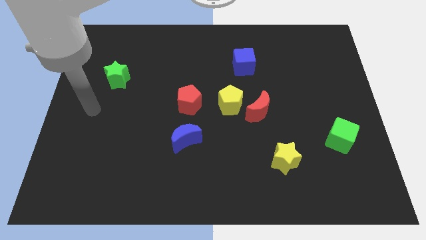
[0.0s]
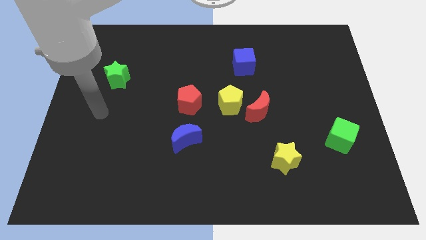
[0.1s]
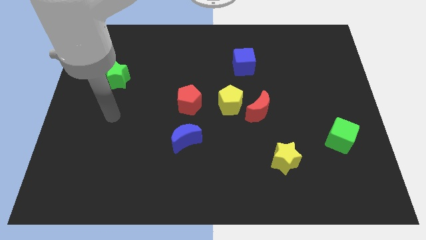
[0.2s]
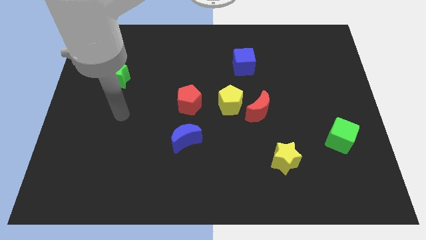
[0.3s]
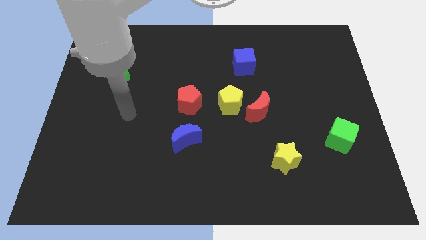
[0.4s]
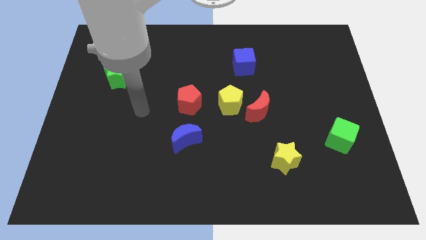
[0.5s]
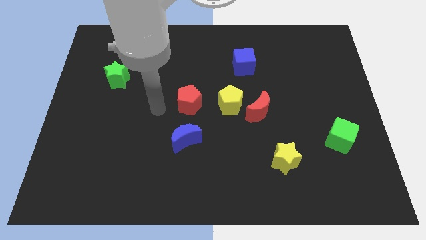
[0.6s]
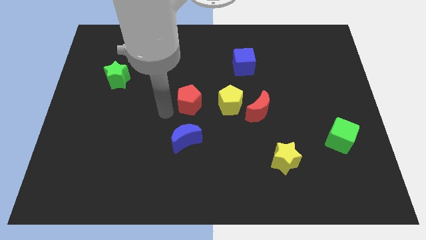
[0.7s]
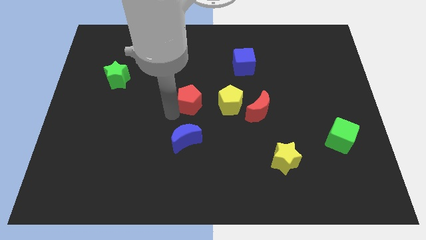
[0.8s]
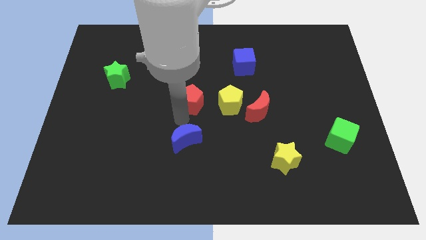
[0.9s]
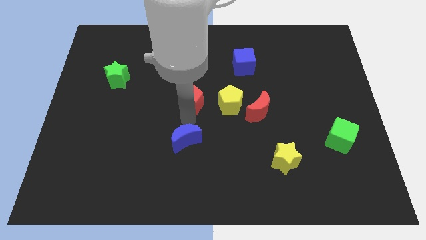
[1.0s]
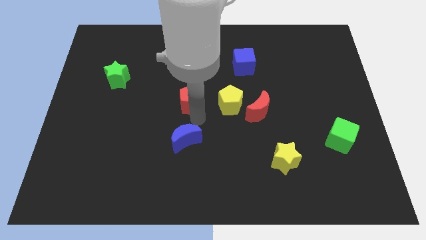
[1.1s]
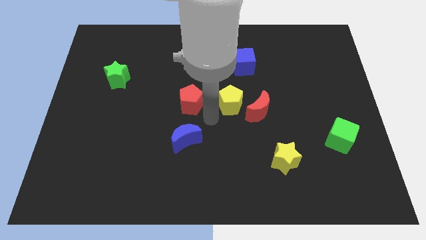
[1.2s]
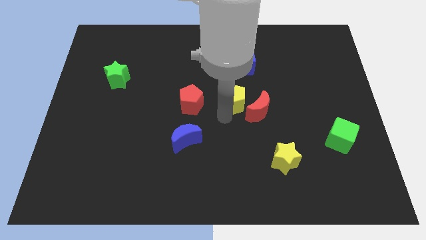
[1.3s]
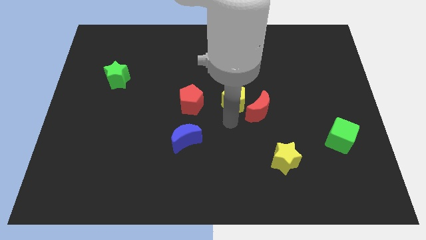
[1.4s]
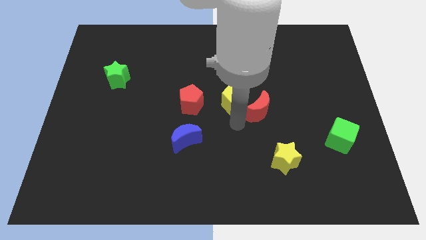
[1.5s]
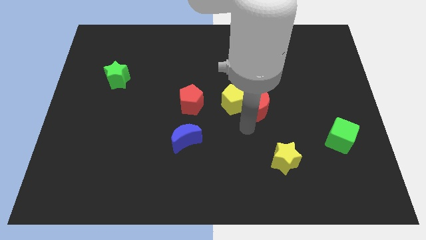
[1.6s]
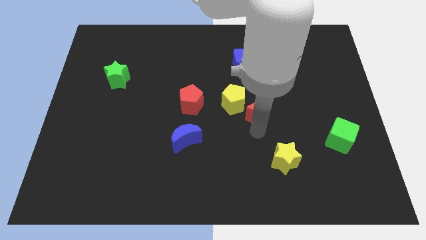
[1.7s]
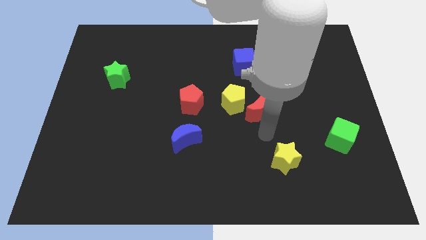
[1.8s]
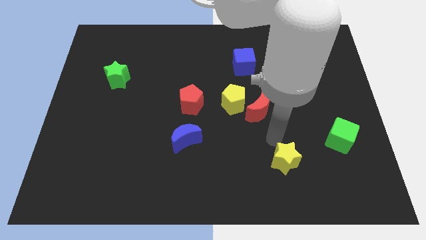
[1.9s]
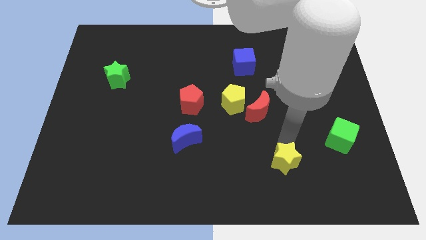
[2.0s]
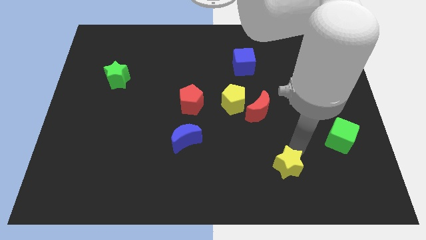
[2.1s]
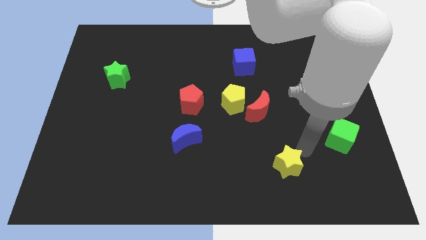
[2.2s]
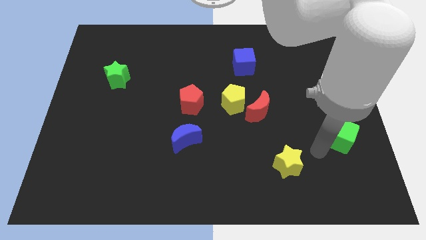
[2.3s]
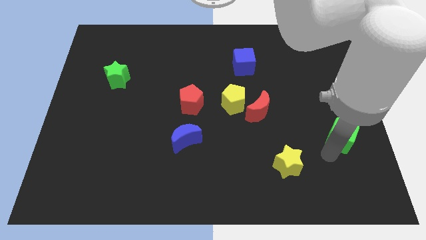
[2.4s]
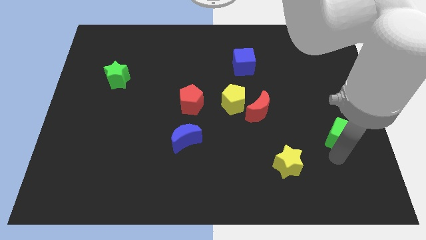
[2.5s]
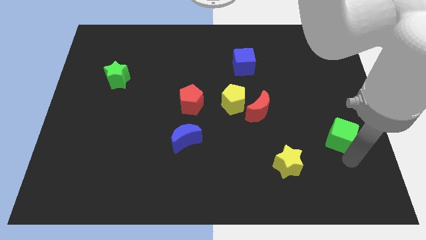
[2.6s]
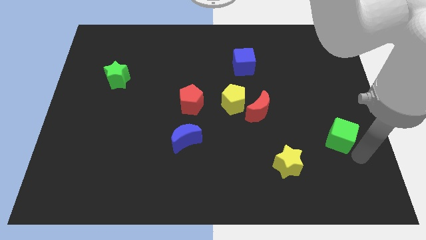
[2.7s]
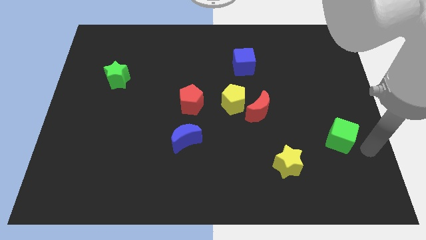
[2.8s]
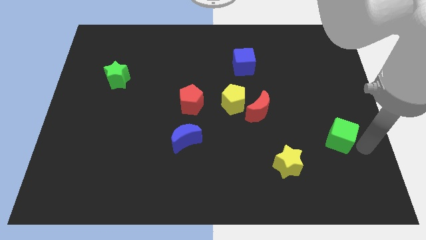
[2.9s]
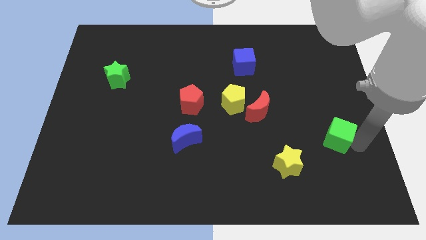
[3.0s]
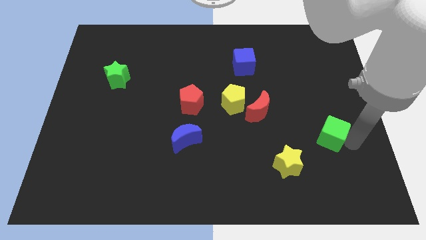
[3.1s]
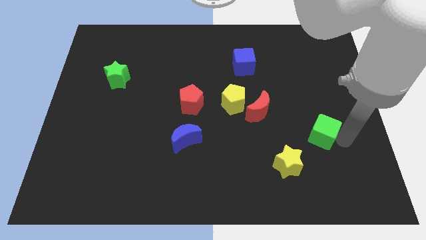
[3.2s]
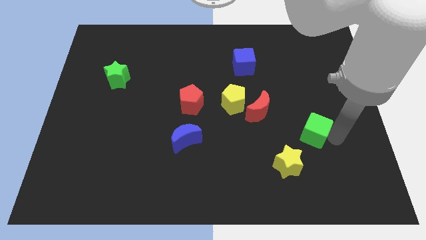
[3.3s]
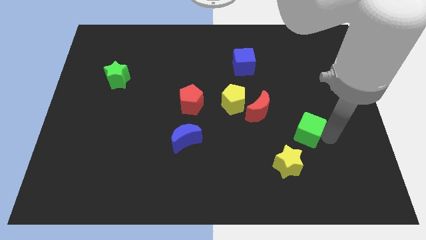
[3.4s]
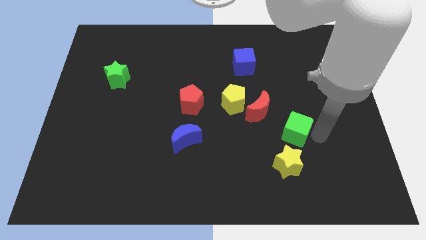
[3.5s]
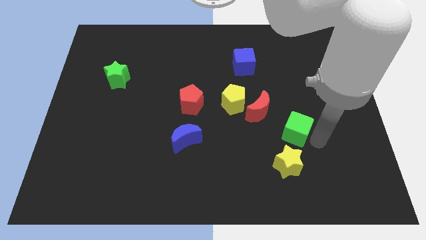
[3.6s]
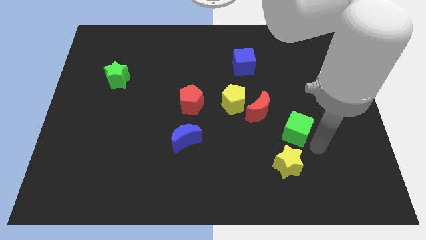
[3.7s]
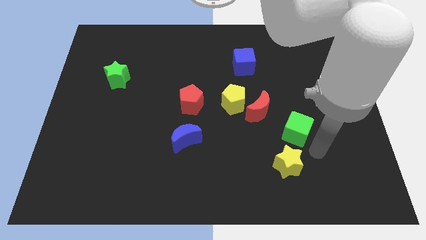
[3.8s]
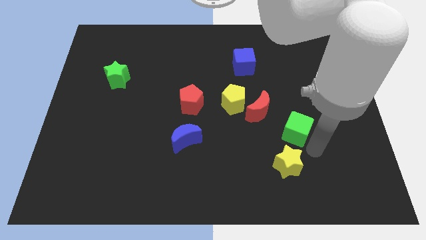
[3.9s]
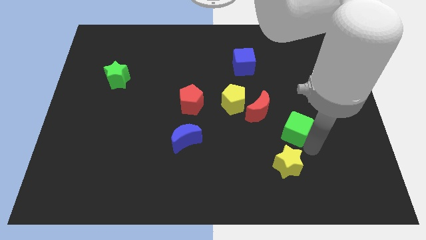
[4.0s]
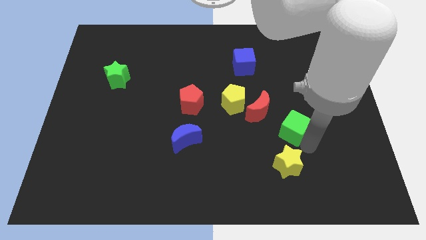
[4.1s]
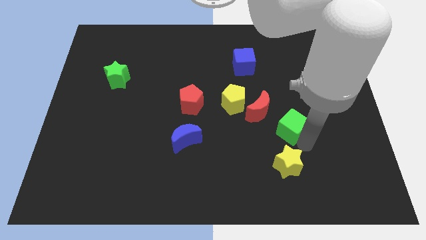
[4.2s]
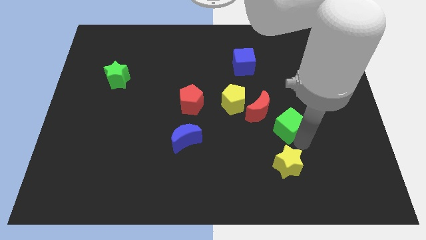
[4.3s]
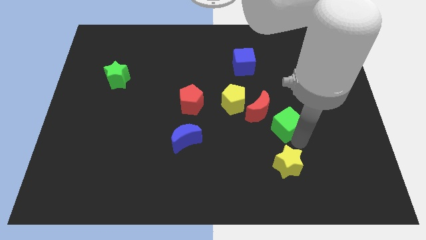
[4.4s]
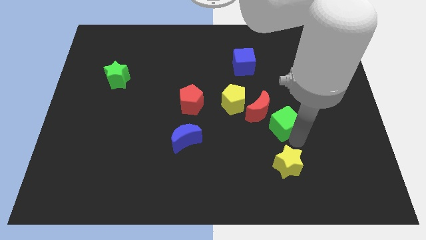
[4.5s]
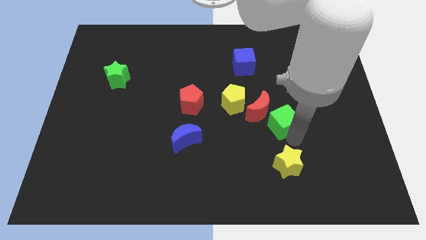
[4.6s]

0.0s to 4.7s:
push the green cube close to the red moon

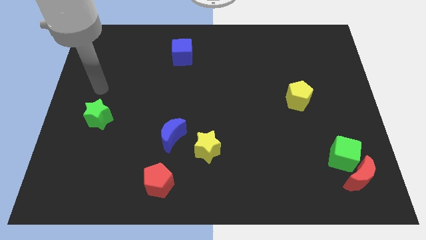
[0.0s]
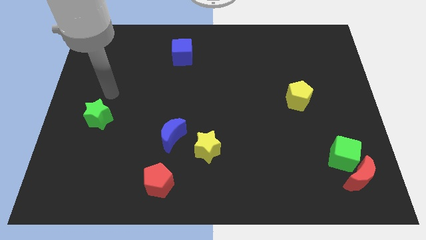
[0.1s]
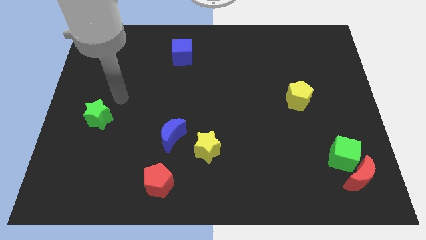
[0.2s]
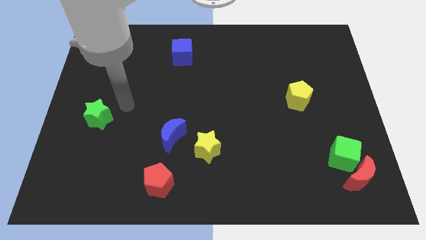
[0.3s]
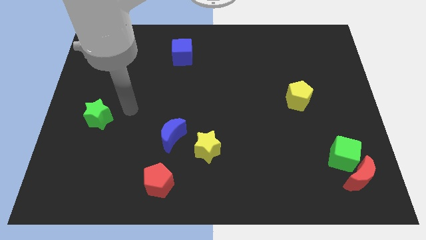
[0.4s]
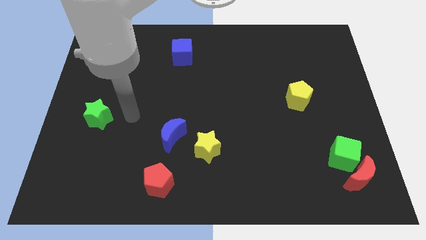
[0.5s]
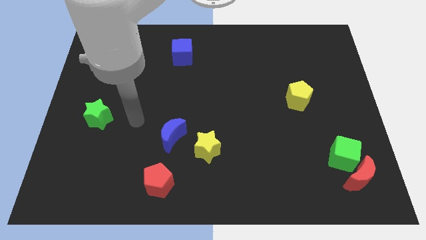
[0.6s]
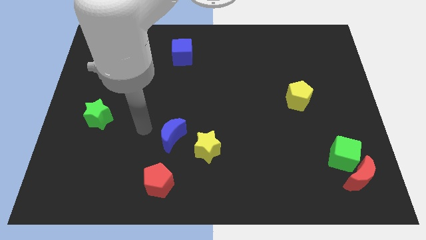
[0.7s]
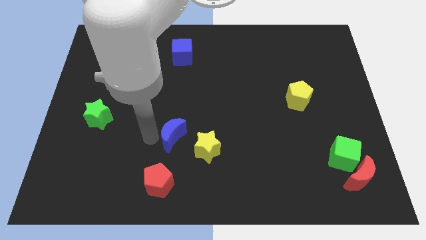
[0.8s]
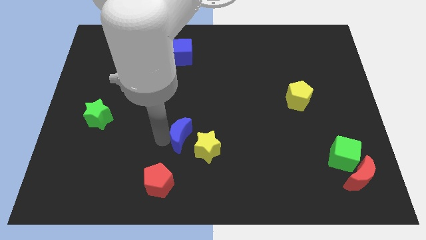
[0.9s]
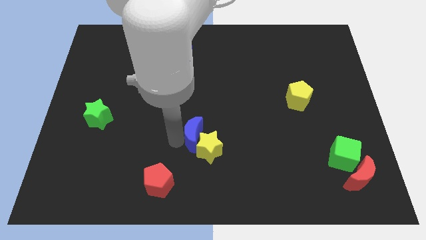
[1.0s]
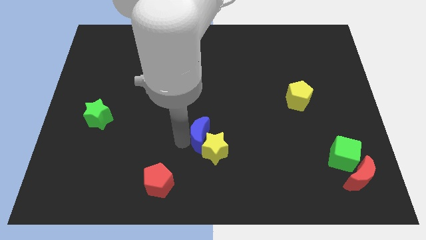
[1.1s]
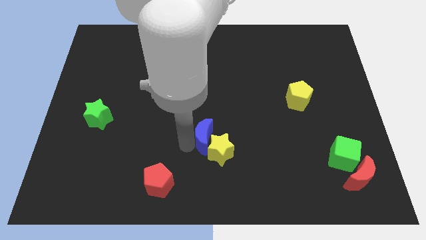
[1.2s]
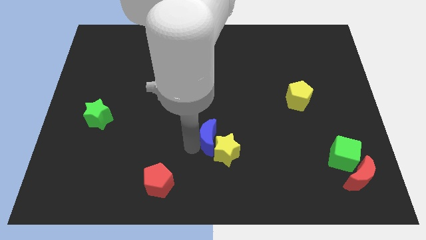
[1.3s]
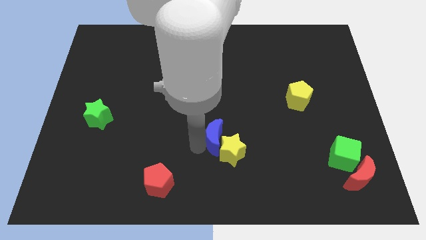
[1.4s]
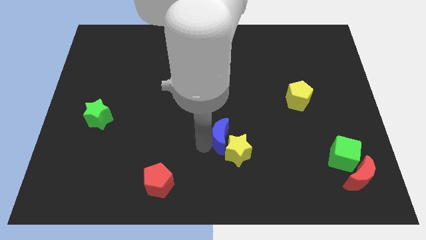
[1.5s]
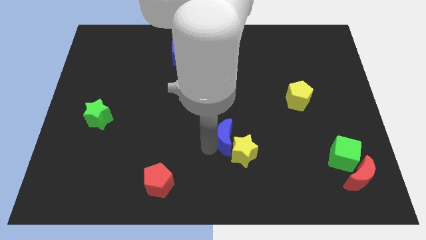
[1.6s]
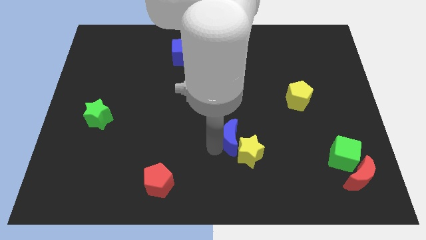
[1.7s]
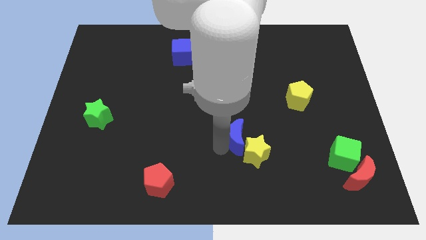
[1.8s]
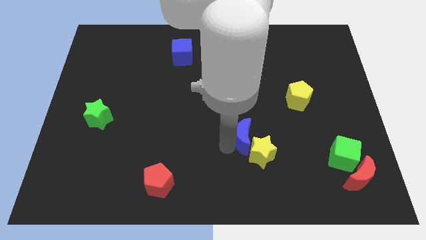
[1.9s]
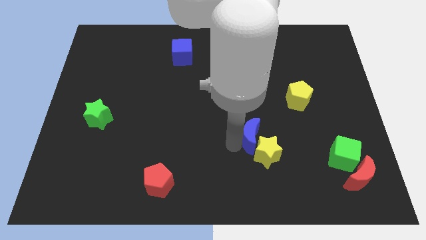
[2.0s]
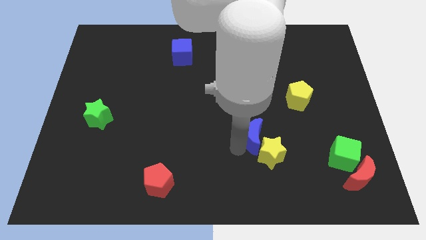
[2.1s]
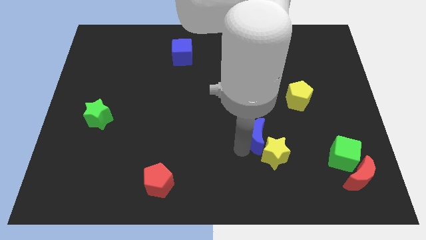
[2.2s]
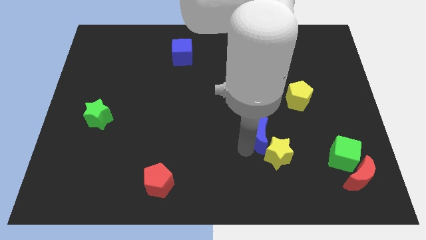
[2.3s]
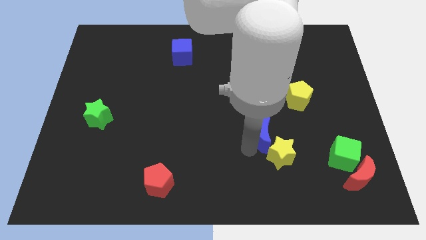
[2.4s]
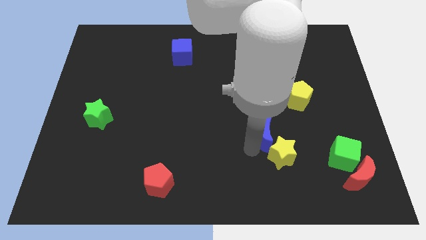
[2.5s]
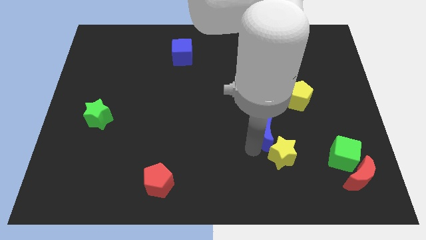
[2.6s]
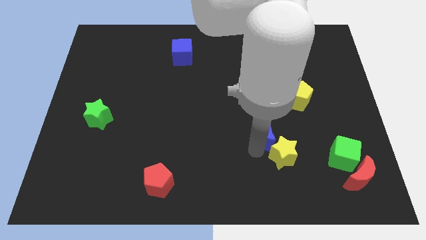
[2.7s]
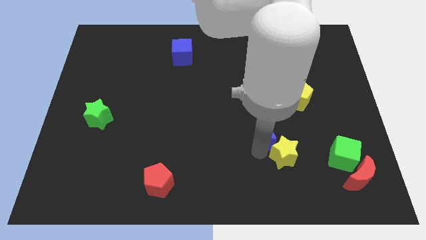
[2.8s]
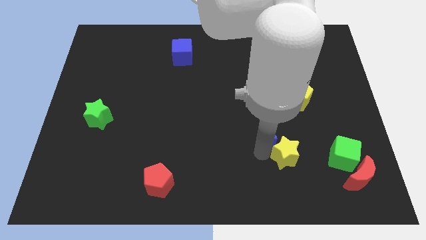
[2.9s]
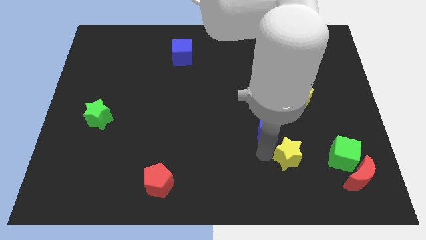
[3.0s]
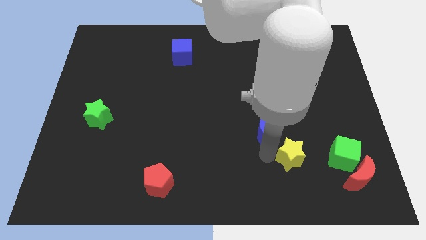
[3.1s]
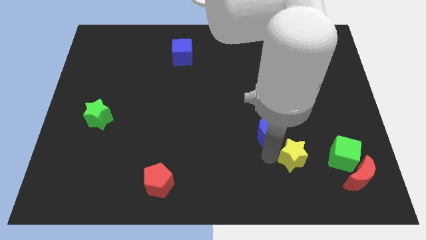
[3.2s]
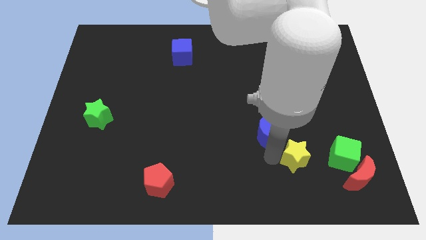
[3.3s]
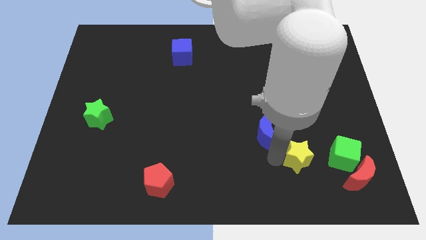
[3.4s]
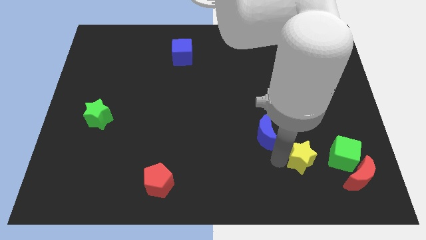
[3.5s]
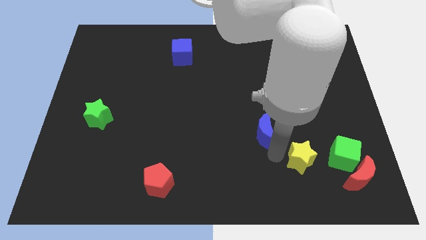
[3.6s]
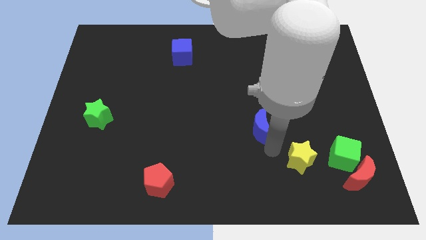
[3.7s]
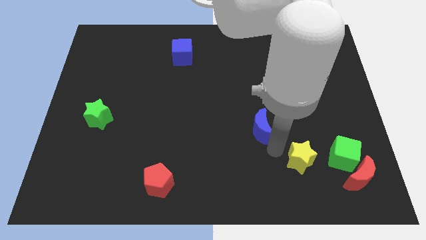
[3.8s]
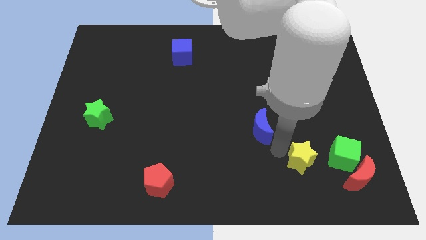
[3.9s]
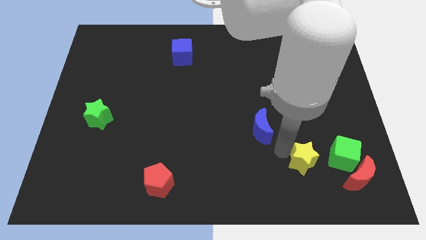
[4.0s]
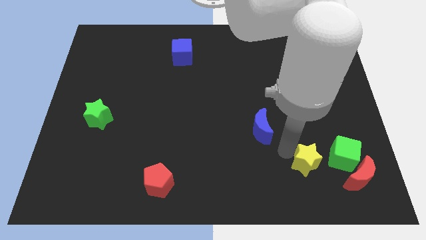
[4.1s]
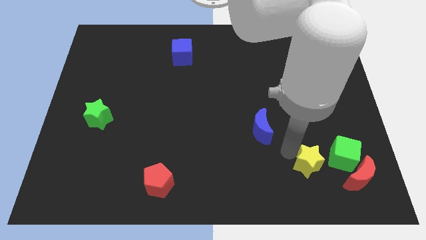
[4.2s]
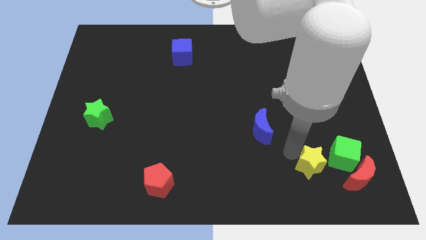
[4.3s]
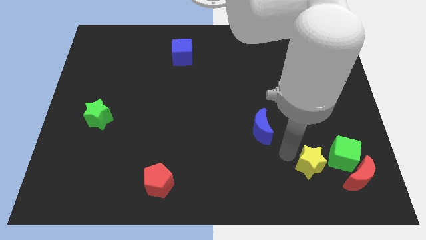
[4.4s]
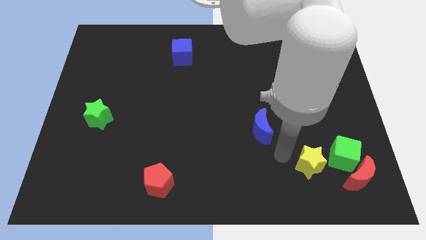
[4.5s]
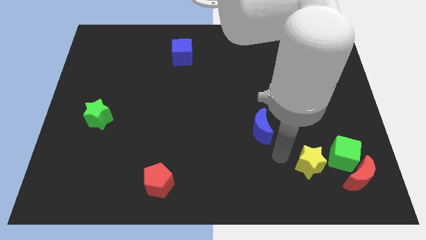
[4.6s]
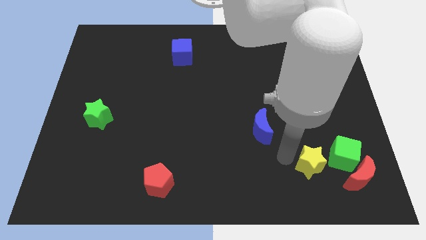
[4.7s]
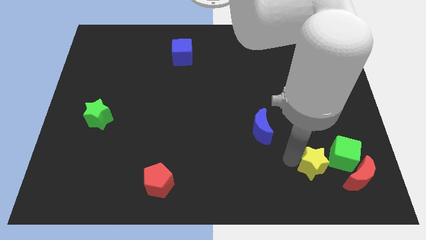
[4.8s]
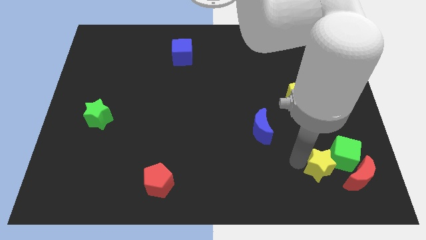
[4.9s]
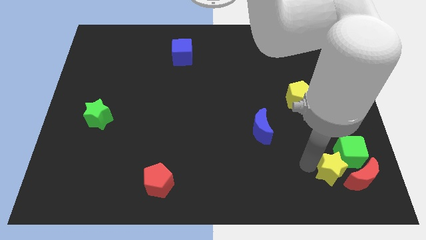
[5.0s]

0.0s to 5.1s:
move the yellow star next to the red moon
